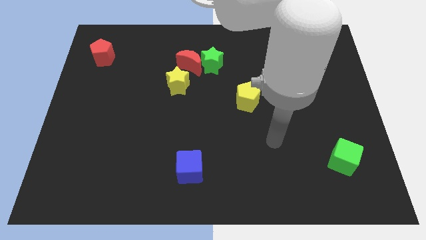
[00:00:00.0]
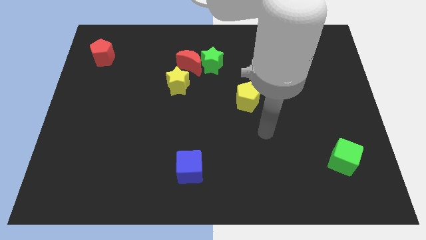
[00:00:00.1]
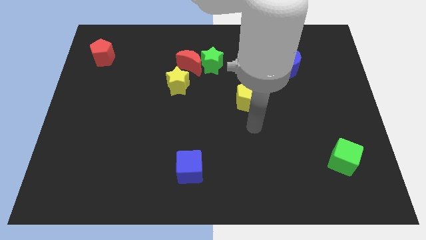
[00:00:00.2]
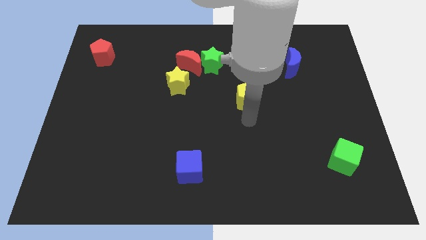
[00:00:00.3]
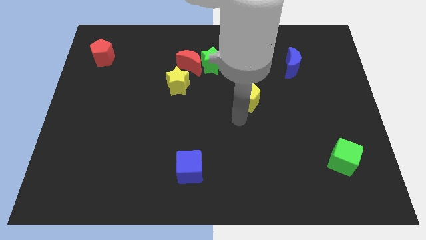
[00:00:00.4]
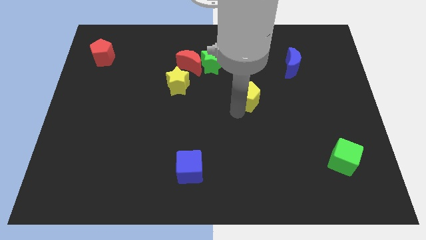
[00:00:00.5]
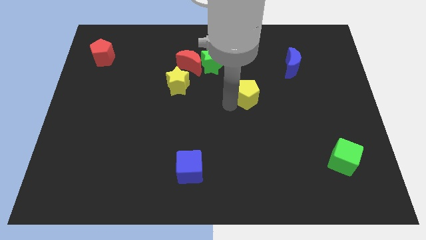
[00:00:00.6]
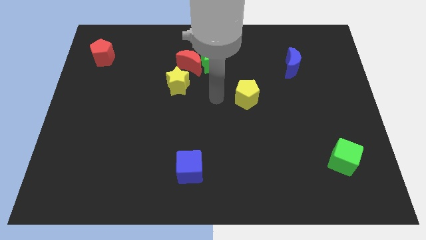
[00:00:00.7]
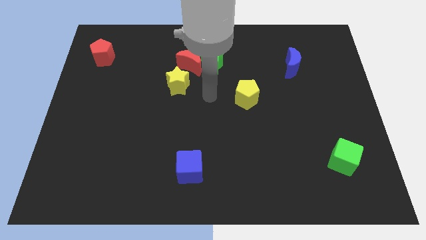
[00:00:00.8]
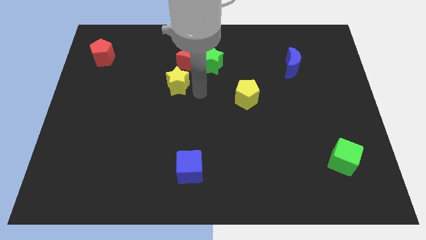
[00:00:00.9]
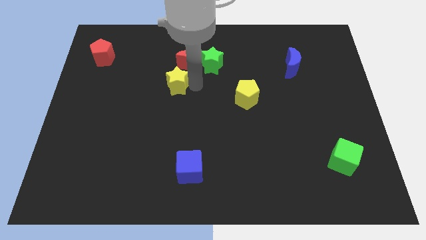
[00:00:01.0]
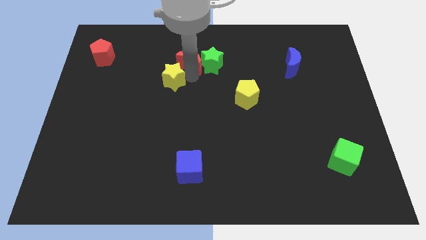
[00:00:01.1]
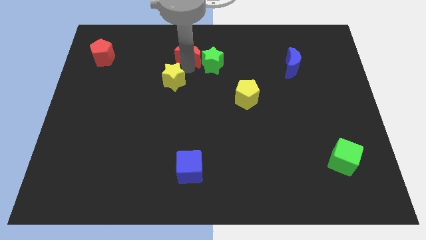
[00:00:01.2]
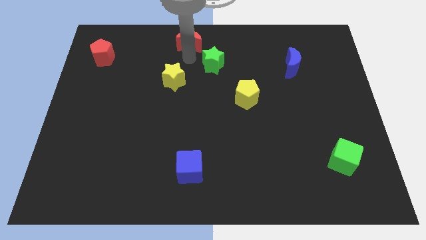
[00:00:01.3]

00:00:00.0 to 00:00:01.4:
pull the green star apart from the red moon

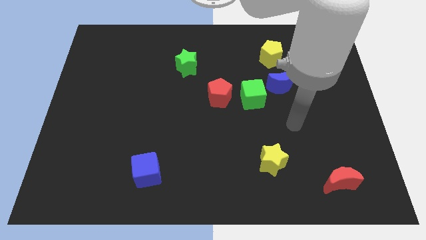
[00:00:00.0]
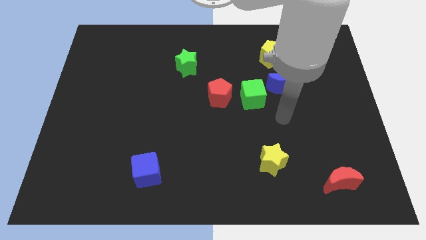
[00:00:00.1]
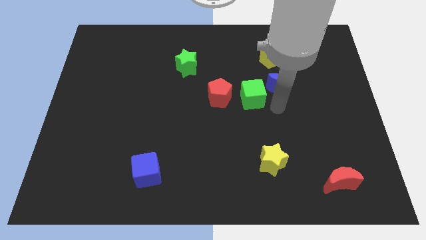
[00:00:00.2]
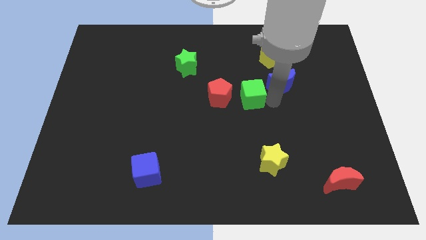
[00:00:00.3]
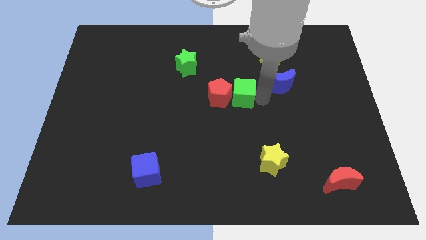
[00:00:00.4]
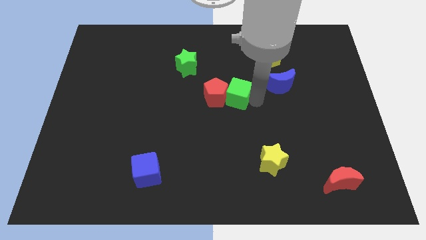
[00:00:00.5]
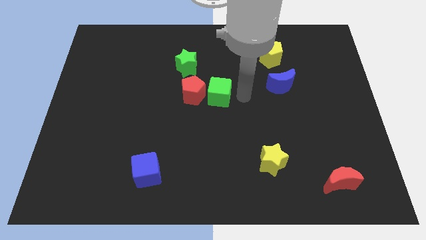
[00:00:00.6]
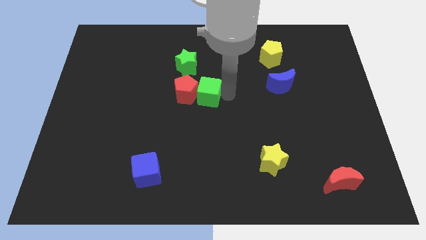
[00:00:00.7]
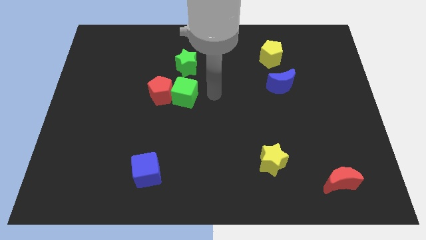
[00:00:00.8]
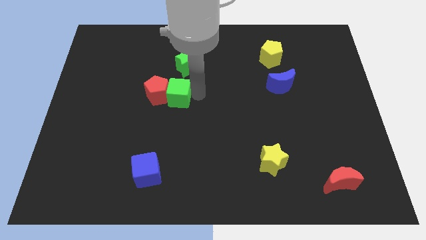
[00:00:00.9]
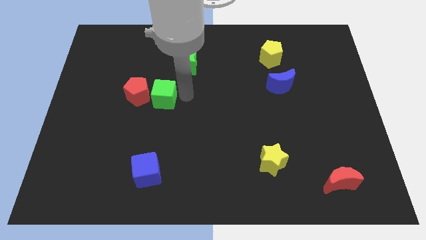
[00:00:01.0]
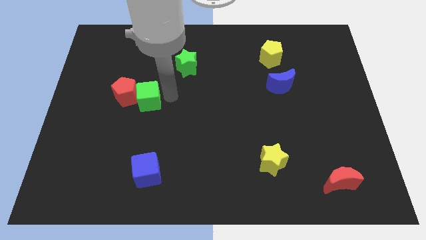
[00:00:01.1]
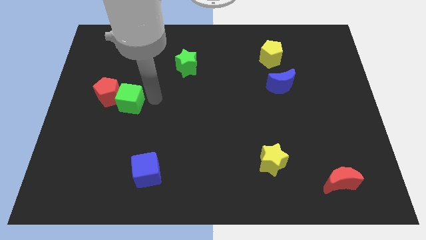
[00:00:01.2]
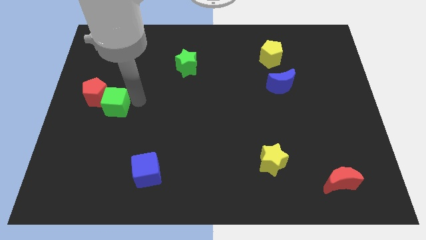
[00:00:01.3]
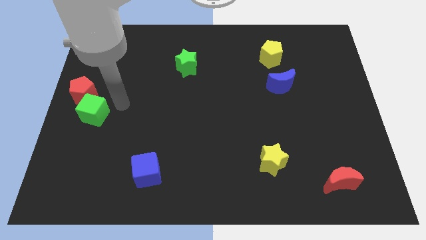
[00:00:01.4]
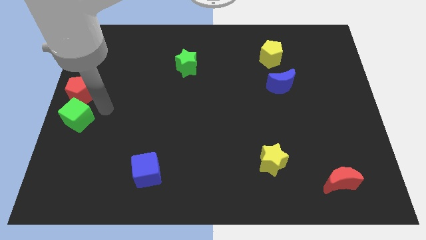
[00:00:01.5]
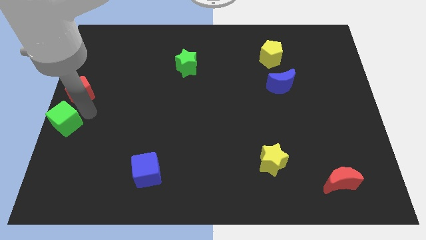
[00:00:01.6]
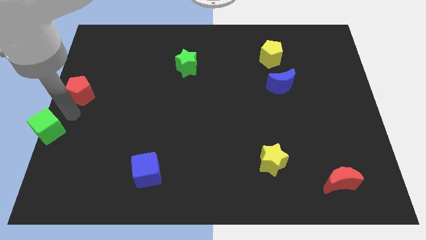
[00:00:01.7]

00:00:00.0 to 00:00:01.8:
pull the red pentagon apart from the green cube

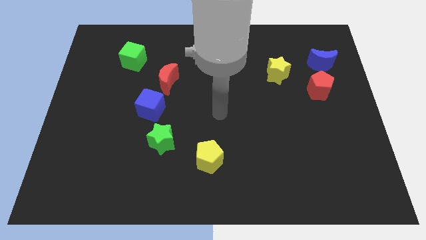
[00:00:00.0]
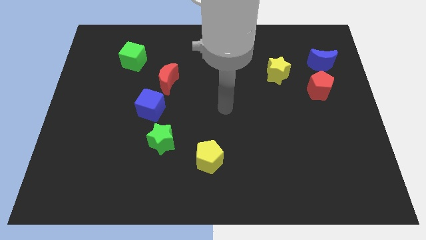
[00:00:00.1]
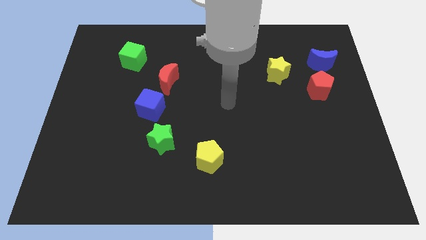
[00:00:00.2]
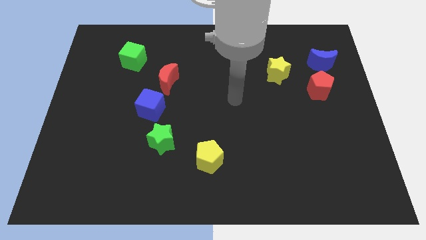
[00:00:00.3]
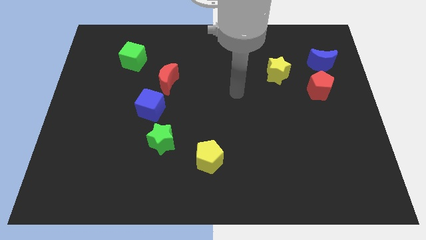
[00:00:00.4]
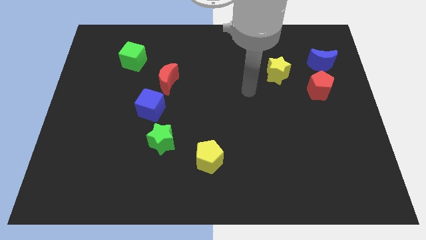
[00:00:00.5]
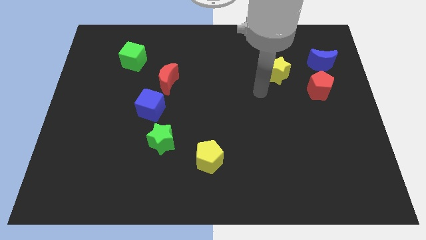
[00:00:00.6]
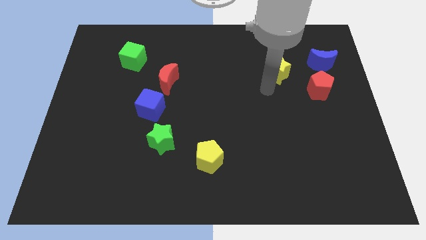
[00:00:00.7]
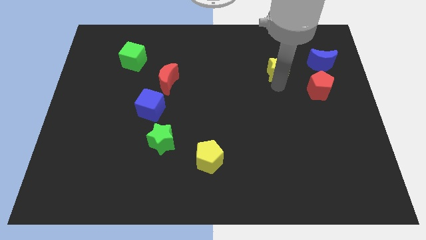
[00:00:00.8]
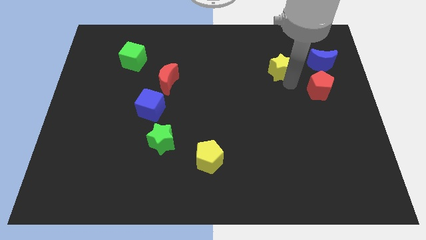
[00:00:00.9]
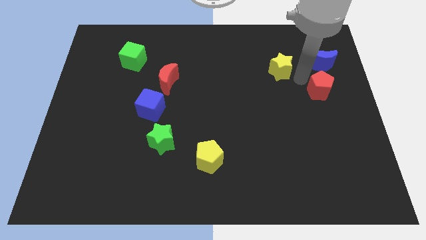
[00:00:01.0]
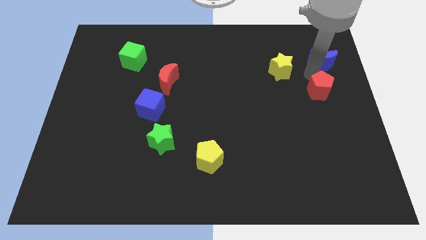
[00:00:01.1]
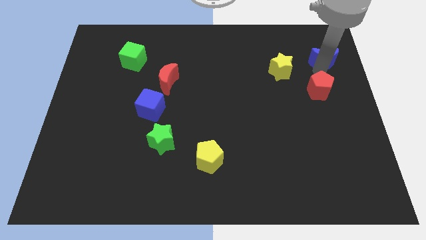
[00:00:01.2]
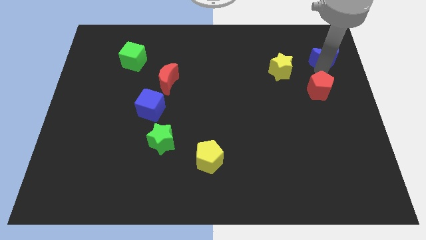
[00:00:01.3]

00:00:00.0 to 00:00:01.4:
pull the red pentagon apart from the blue moon

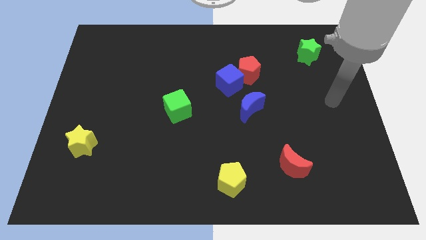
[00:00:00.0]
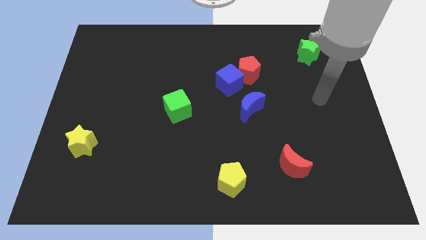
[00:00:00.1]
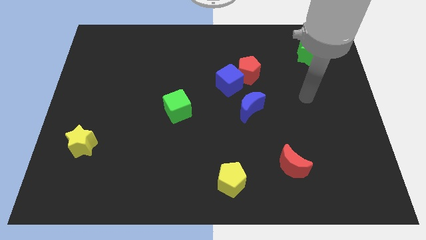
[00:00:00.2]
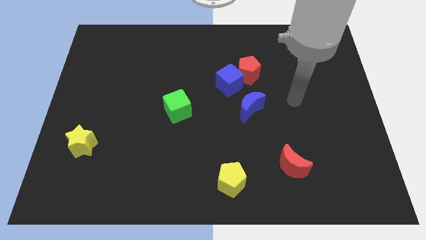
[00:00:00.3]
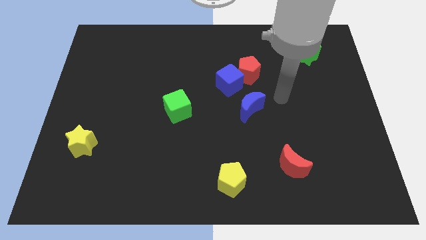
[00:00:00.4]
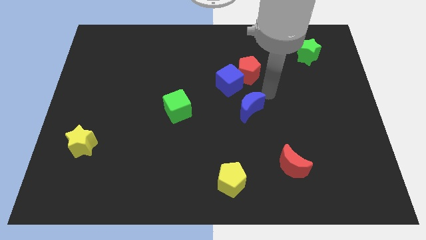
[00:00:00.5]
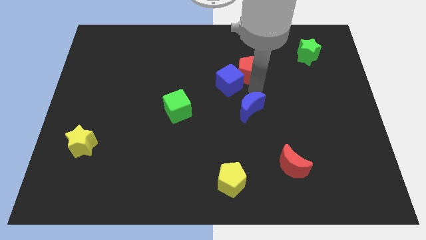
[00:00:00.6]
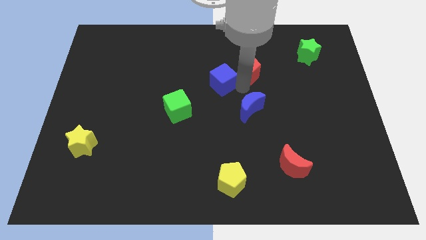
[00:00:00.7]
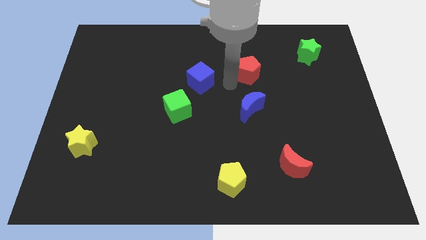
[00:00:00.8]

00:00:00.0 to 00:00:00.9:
pull the red pentagon apart from the blue cube

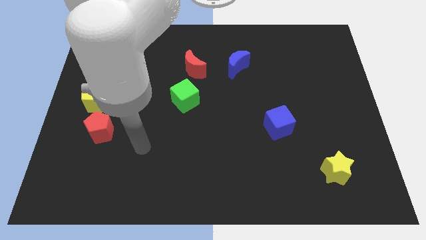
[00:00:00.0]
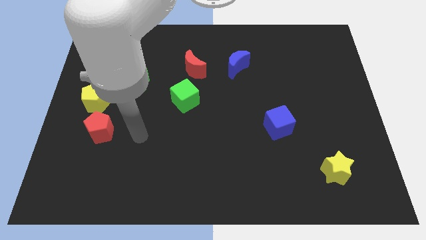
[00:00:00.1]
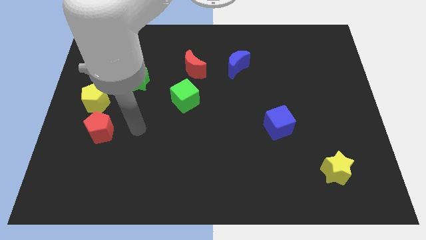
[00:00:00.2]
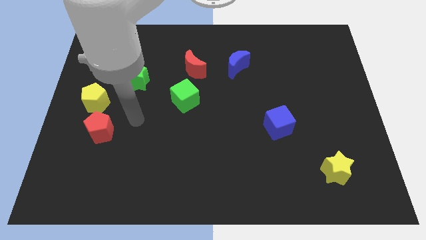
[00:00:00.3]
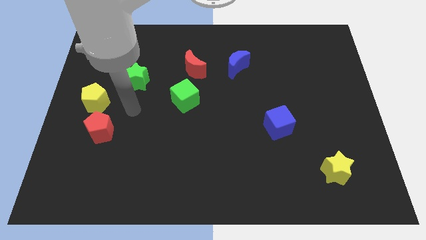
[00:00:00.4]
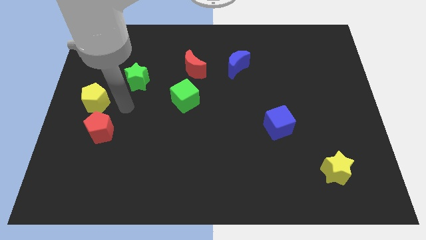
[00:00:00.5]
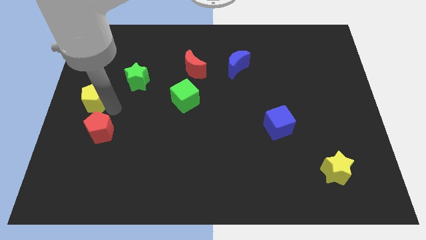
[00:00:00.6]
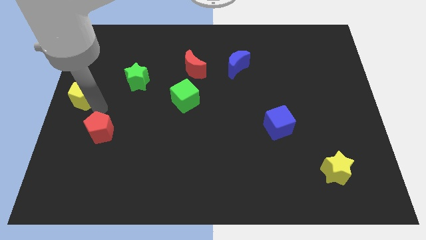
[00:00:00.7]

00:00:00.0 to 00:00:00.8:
pull the red pentagon apart from the yellow pentagon

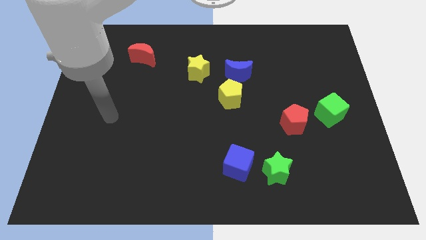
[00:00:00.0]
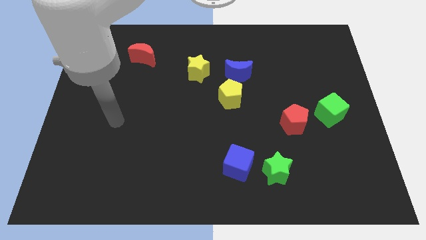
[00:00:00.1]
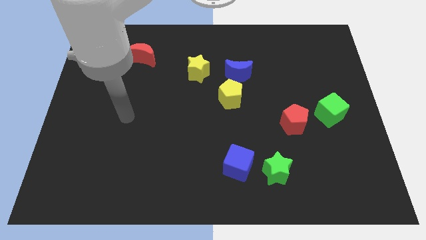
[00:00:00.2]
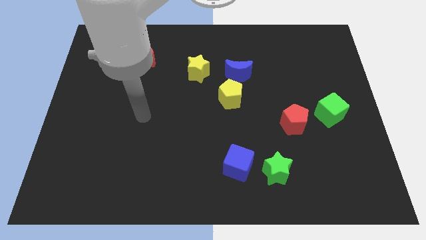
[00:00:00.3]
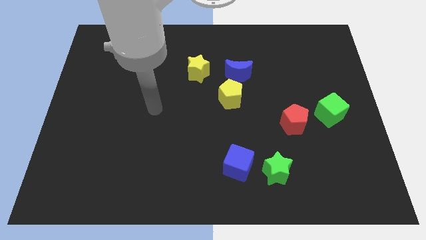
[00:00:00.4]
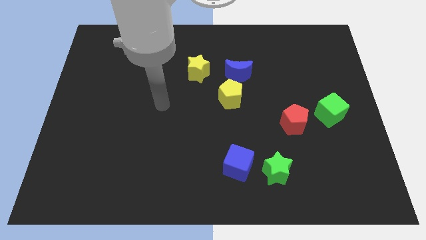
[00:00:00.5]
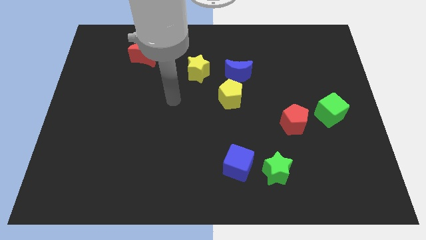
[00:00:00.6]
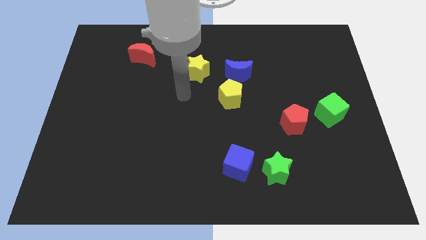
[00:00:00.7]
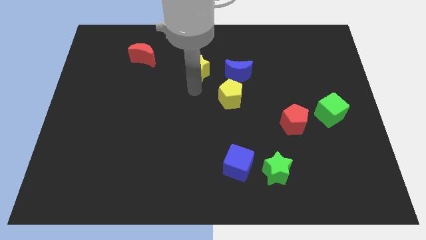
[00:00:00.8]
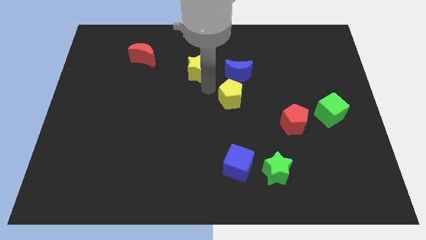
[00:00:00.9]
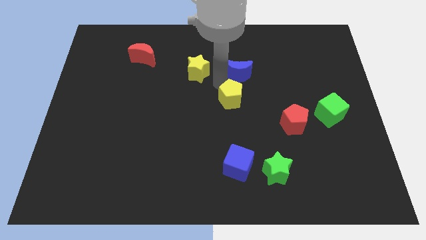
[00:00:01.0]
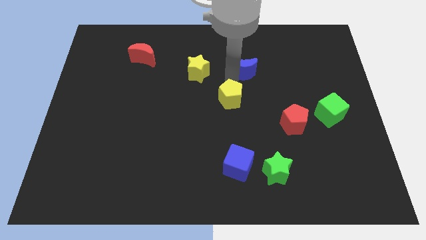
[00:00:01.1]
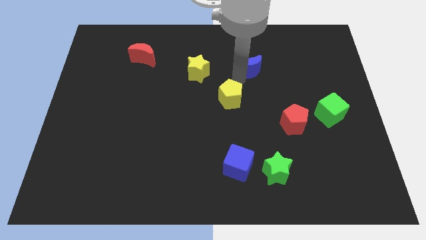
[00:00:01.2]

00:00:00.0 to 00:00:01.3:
pull the yellow pentagon apart from the blue moon

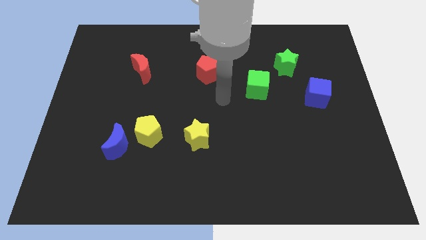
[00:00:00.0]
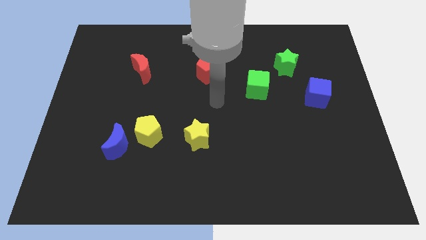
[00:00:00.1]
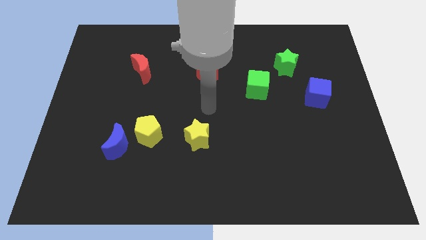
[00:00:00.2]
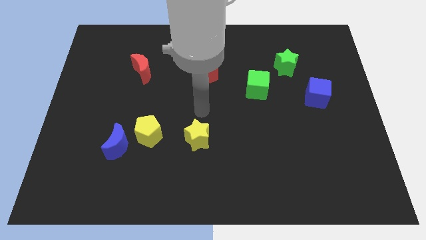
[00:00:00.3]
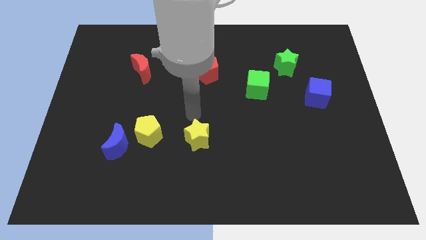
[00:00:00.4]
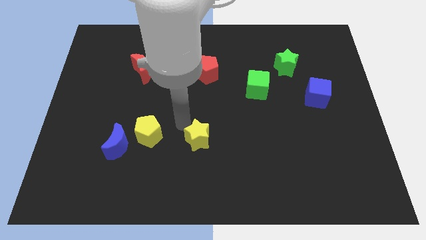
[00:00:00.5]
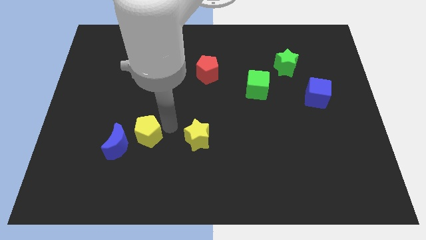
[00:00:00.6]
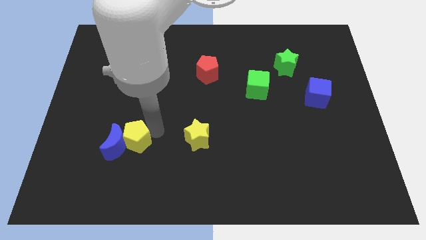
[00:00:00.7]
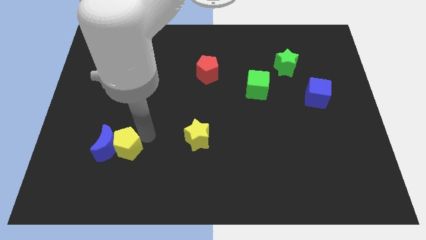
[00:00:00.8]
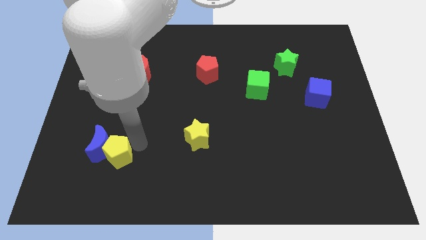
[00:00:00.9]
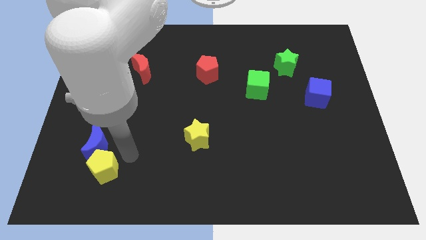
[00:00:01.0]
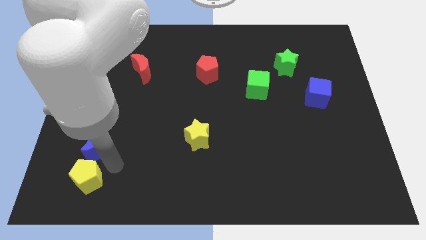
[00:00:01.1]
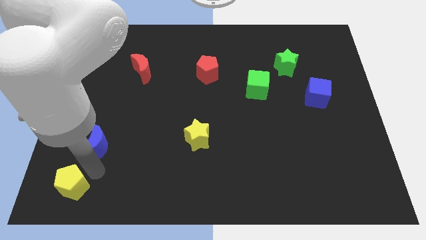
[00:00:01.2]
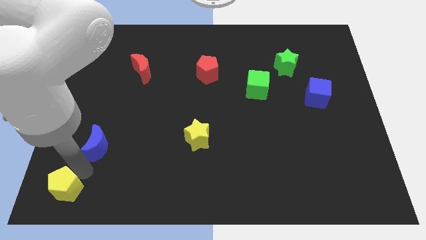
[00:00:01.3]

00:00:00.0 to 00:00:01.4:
separate the blue moon from the yellow pentagon
